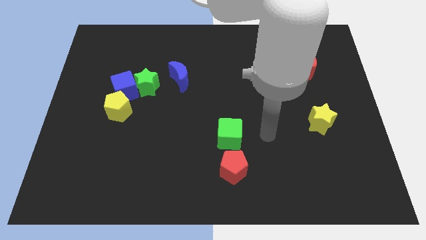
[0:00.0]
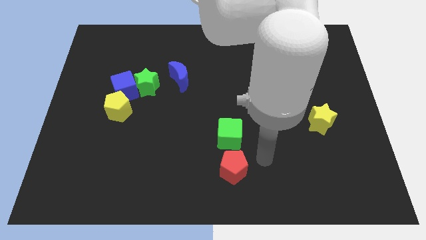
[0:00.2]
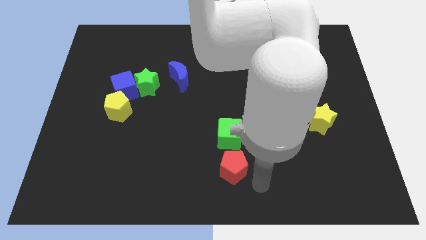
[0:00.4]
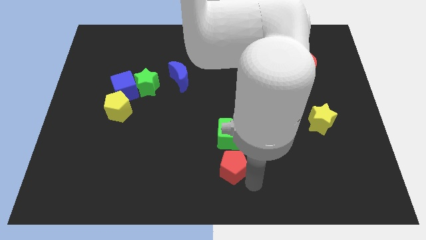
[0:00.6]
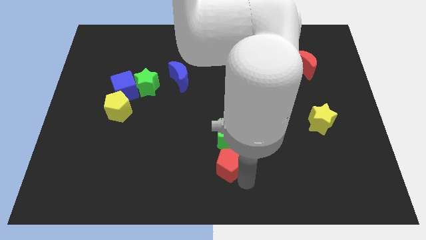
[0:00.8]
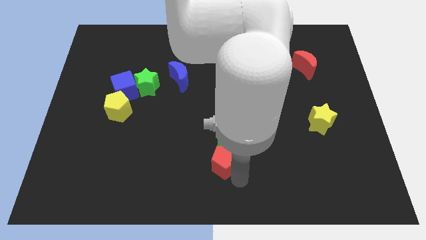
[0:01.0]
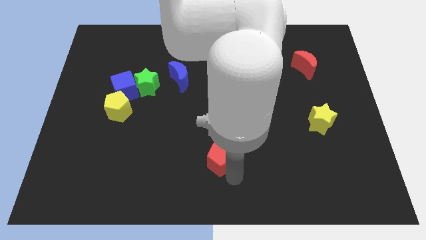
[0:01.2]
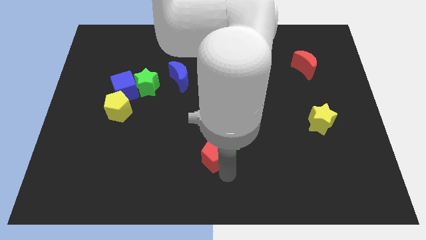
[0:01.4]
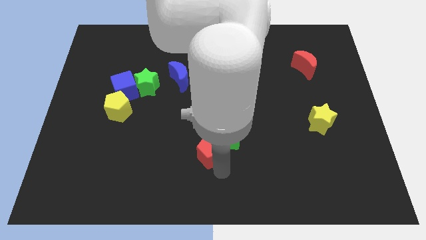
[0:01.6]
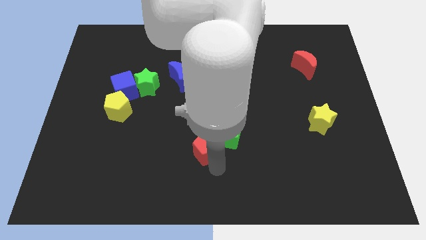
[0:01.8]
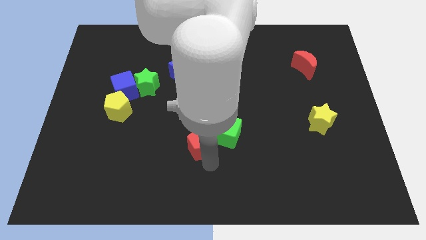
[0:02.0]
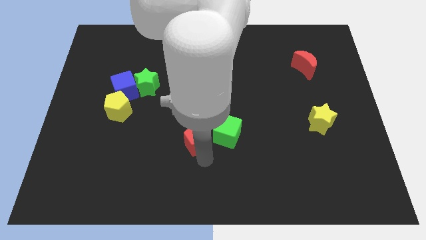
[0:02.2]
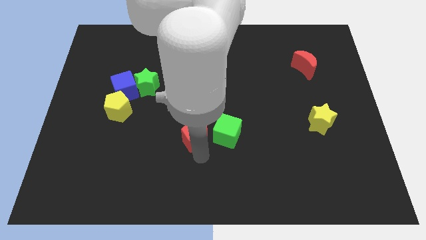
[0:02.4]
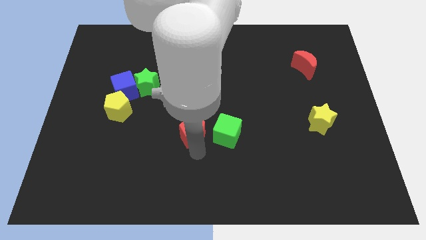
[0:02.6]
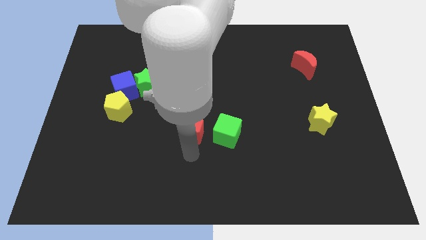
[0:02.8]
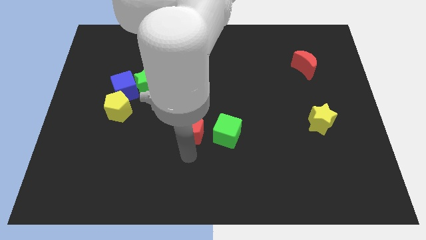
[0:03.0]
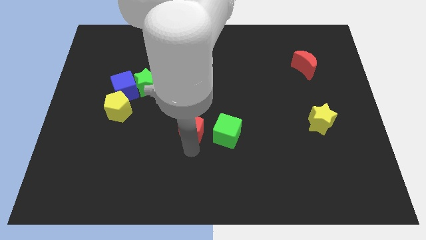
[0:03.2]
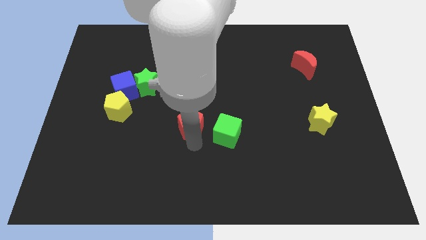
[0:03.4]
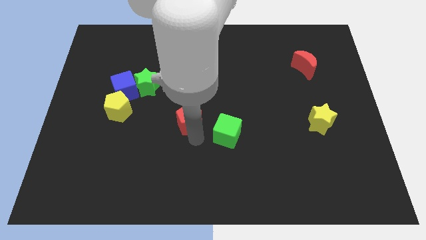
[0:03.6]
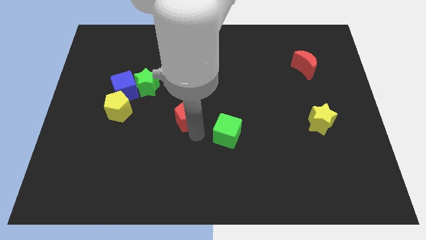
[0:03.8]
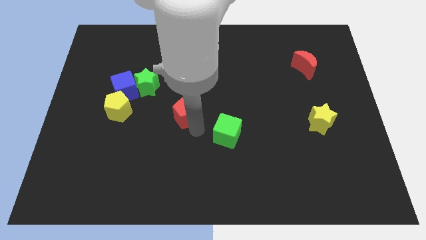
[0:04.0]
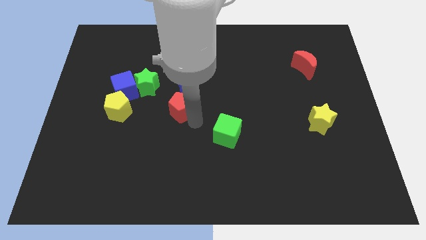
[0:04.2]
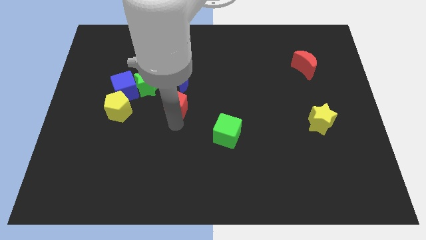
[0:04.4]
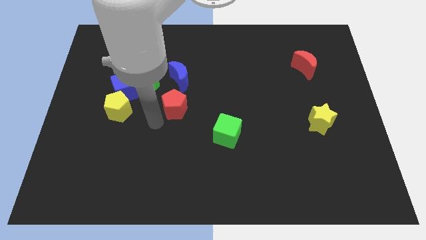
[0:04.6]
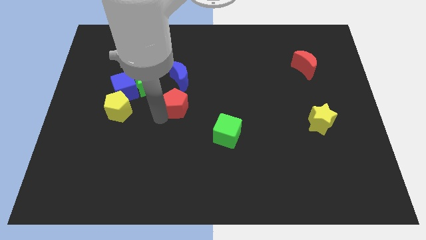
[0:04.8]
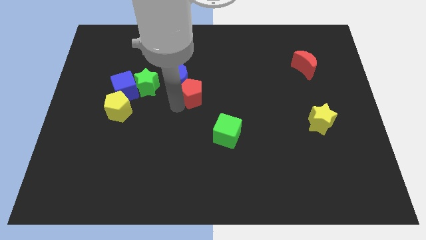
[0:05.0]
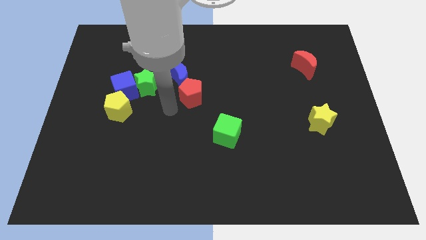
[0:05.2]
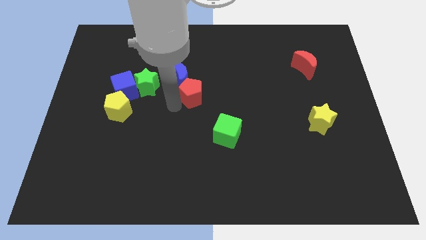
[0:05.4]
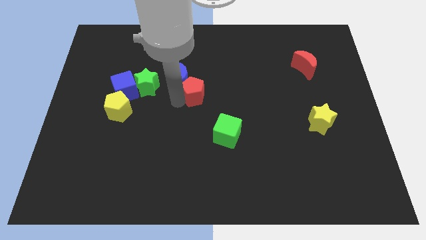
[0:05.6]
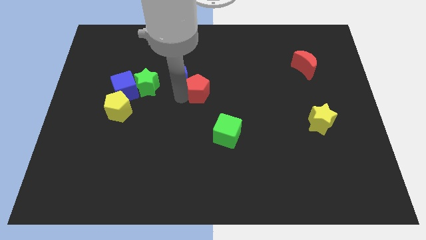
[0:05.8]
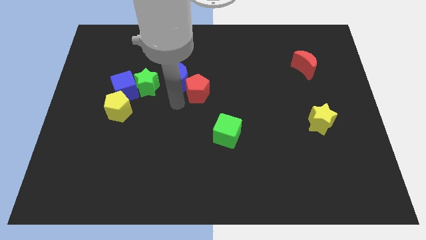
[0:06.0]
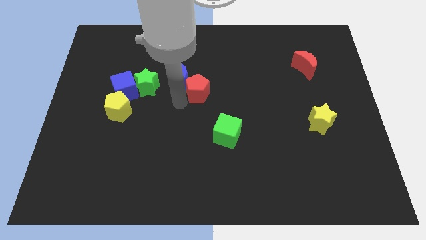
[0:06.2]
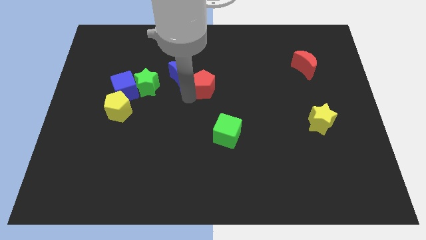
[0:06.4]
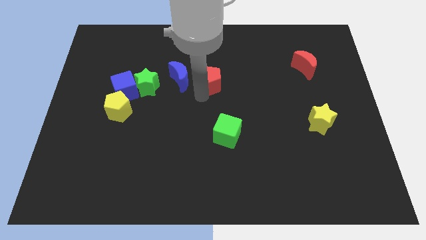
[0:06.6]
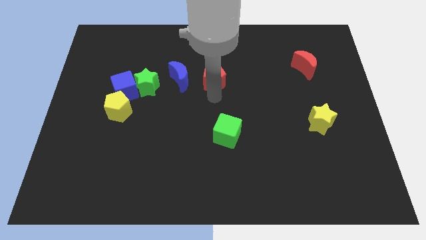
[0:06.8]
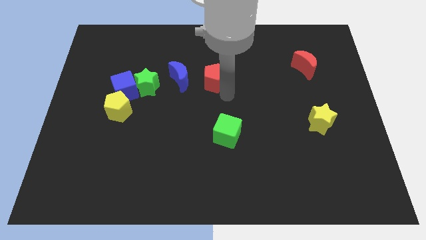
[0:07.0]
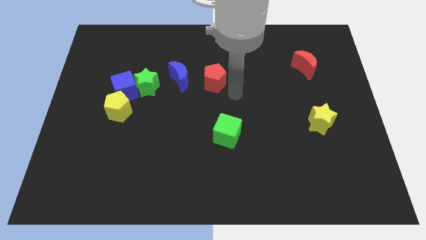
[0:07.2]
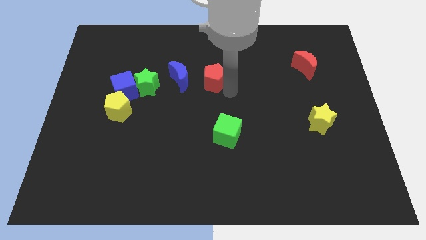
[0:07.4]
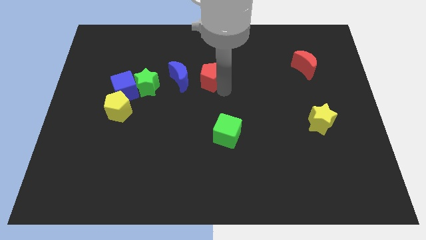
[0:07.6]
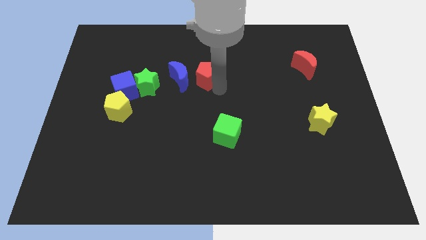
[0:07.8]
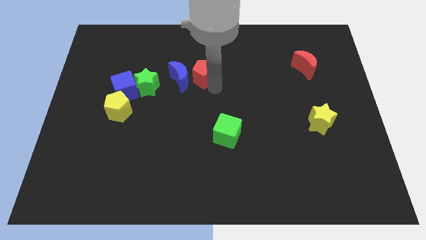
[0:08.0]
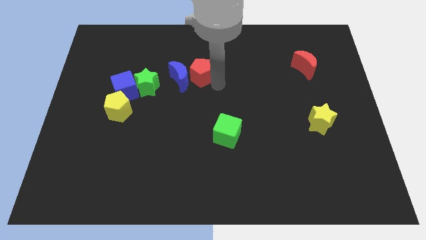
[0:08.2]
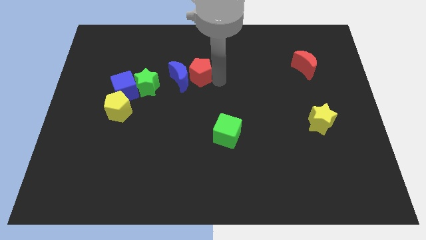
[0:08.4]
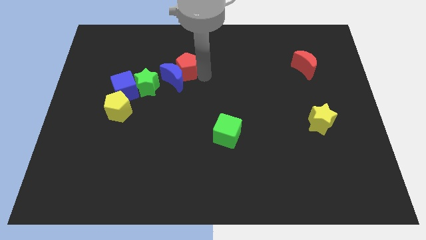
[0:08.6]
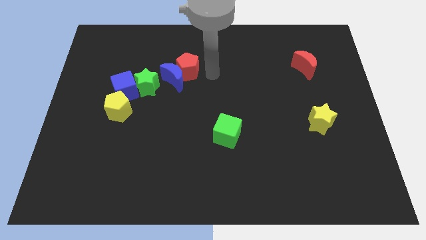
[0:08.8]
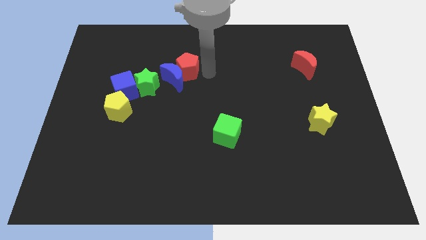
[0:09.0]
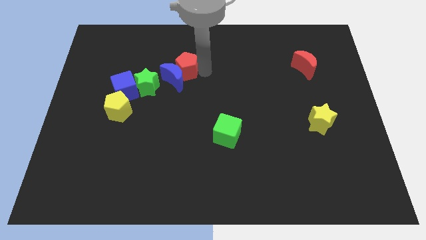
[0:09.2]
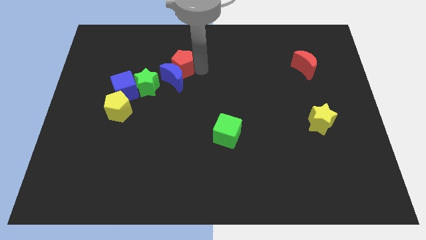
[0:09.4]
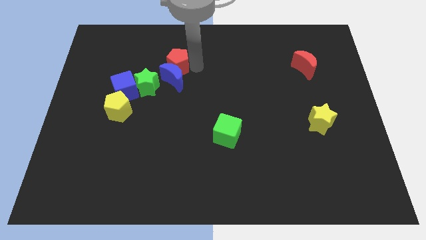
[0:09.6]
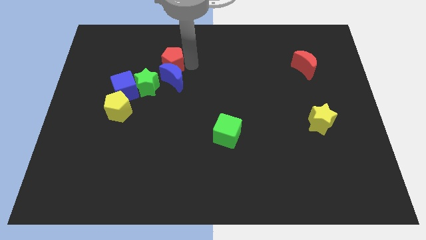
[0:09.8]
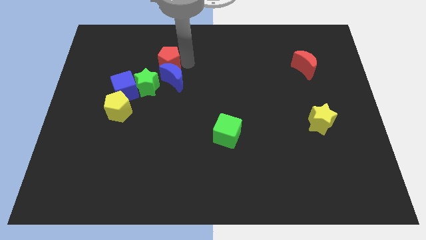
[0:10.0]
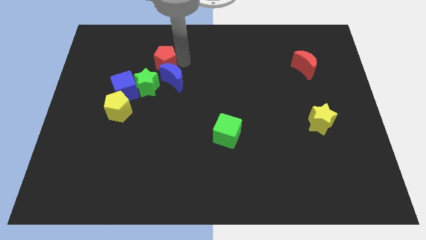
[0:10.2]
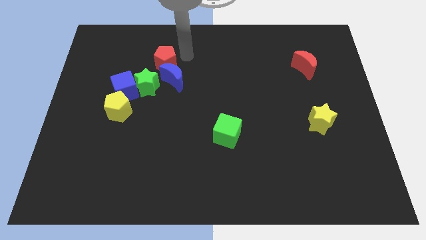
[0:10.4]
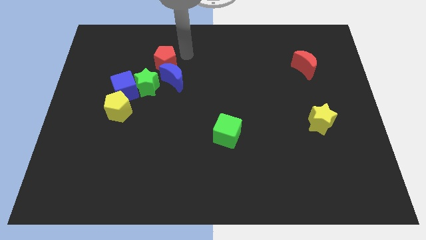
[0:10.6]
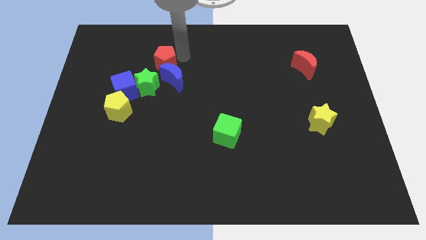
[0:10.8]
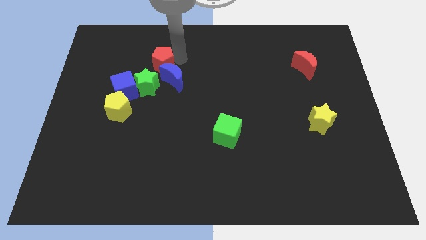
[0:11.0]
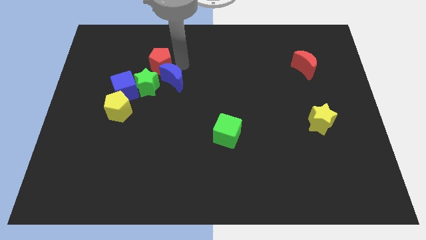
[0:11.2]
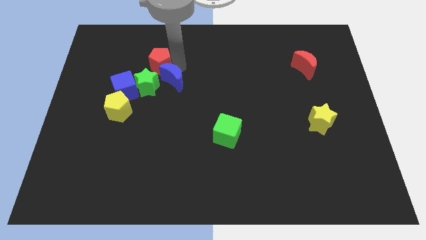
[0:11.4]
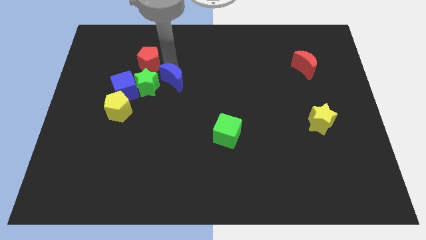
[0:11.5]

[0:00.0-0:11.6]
move the red pentagon to the top of the blue cube

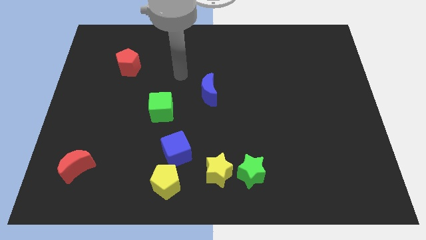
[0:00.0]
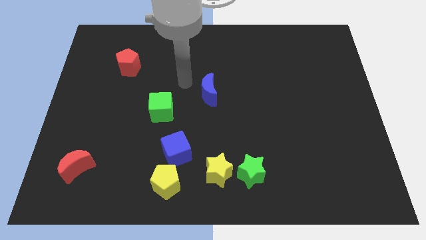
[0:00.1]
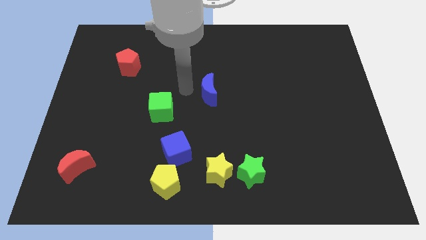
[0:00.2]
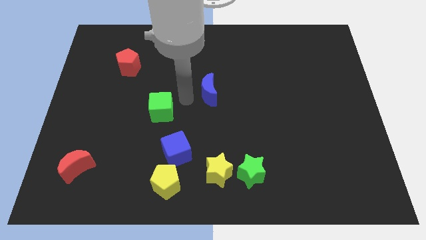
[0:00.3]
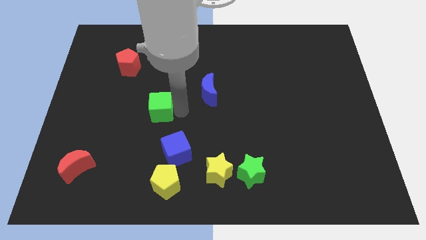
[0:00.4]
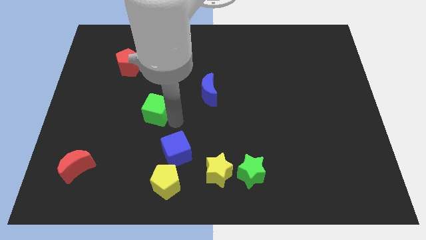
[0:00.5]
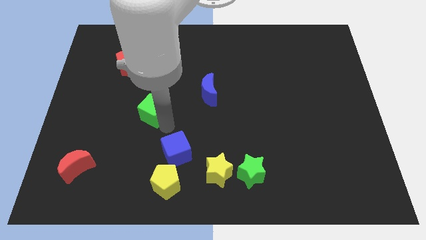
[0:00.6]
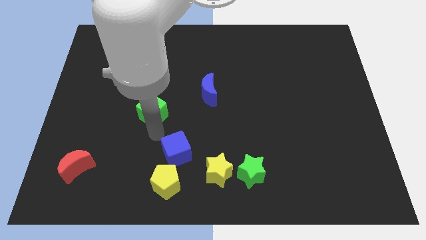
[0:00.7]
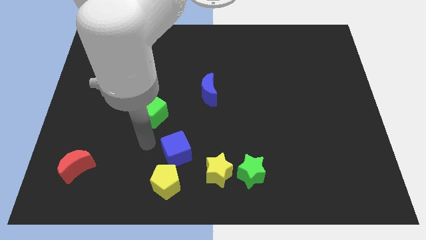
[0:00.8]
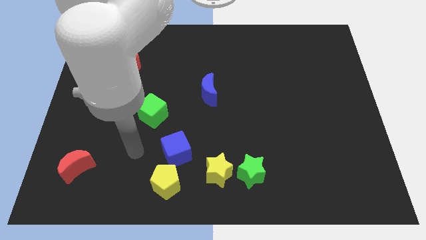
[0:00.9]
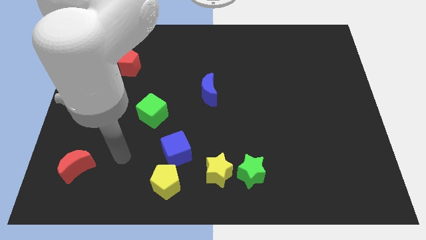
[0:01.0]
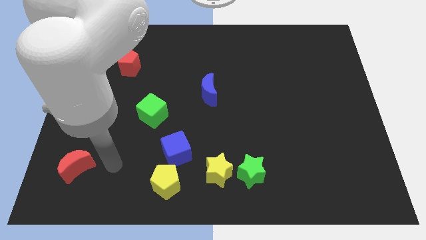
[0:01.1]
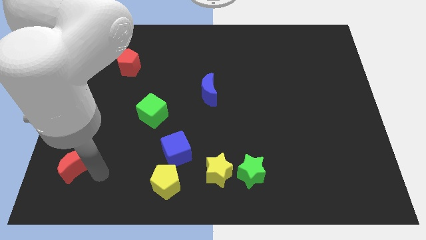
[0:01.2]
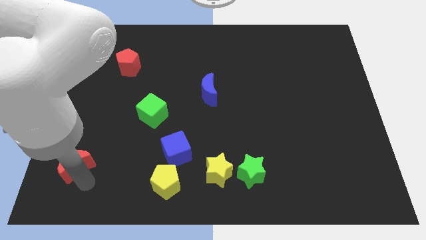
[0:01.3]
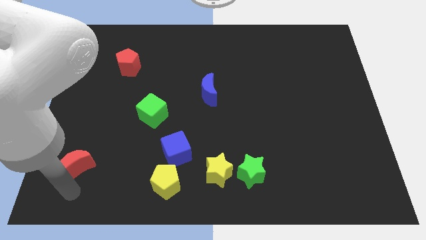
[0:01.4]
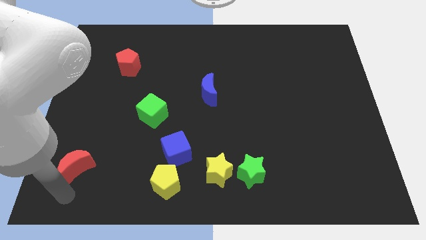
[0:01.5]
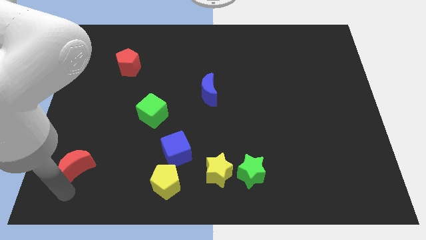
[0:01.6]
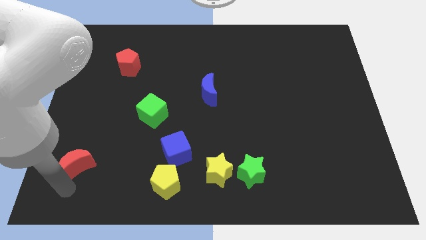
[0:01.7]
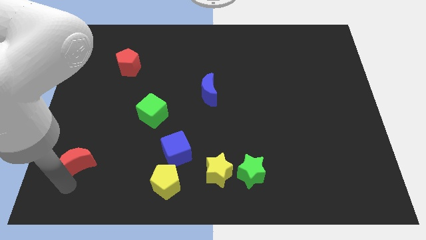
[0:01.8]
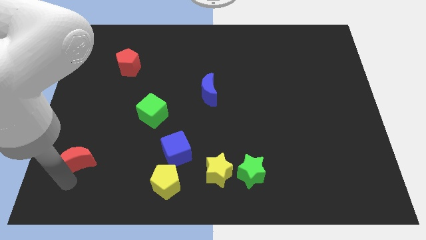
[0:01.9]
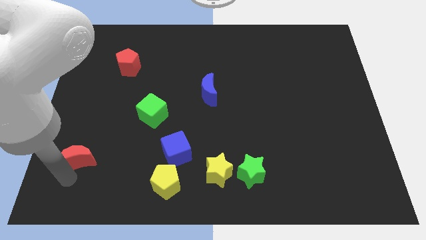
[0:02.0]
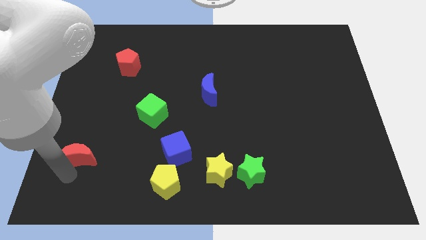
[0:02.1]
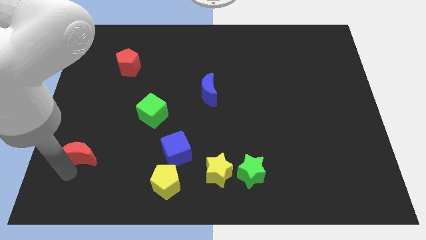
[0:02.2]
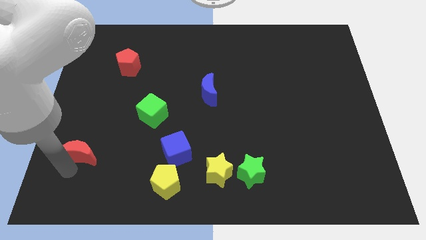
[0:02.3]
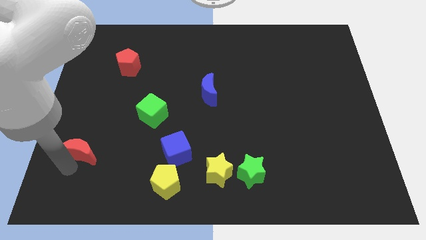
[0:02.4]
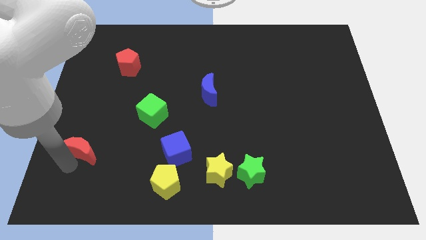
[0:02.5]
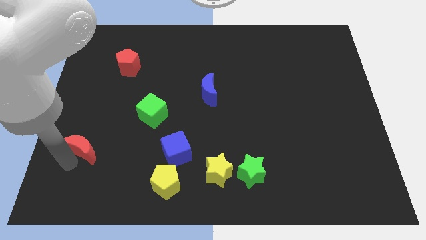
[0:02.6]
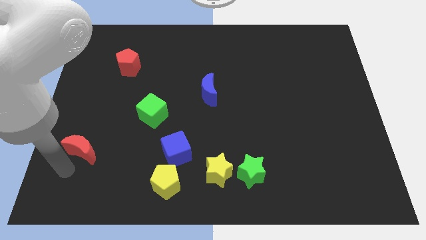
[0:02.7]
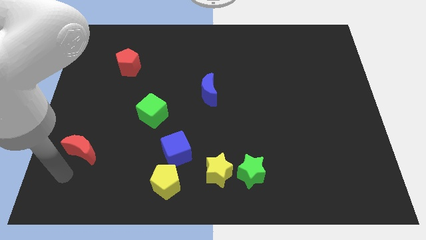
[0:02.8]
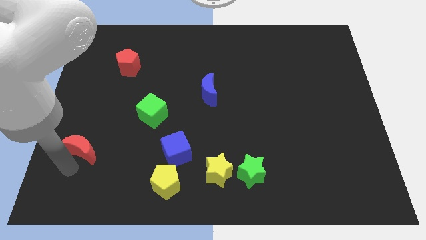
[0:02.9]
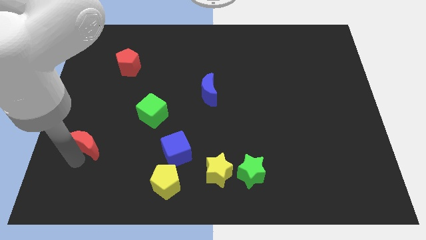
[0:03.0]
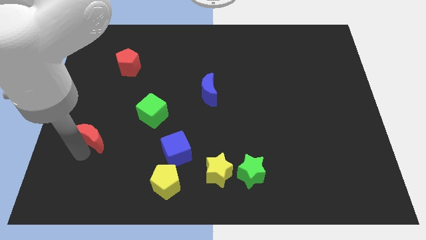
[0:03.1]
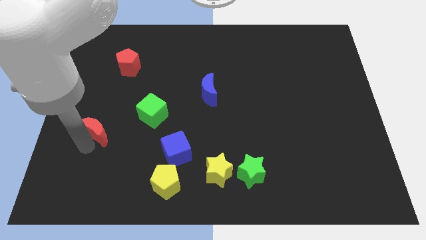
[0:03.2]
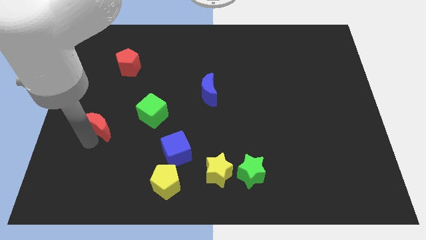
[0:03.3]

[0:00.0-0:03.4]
put the red moon left of the green cube
